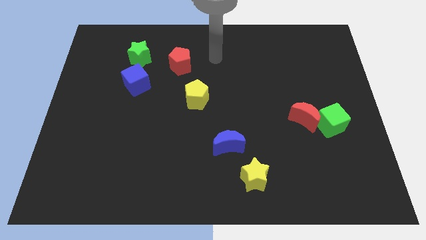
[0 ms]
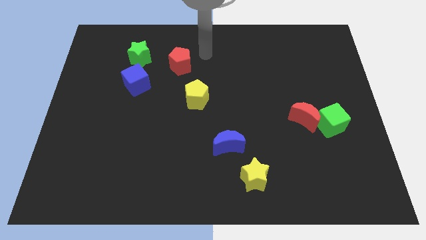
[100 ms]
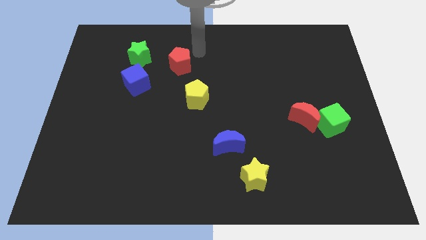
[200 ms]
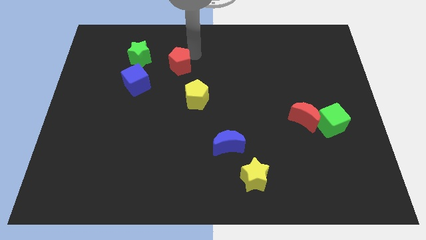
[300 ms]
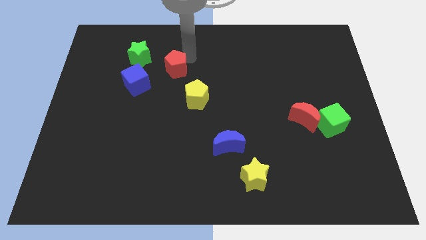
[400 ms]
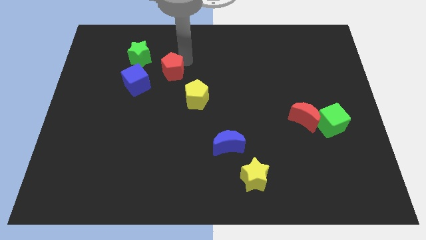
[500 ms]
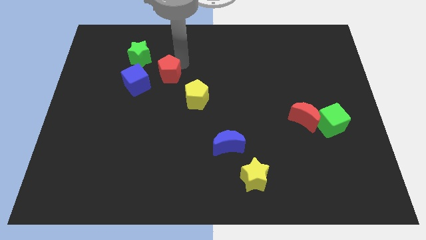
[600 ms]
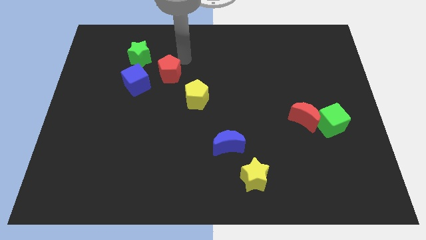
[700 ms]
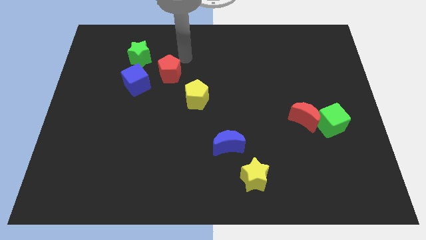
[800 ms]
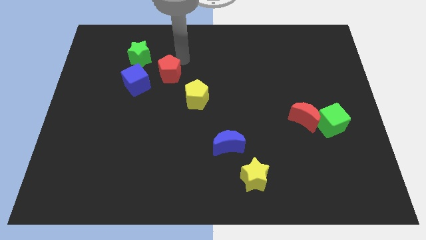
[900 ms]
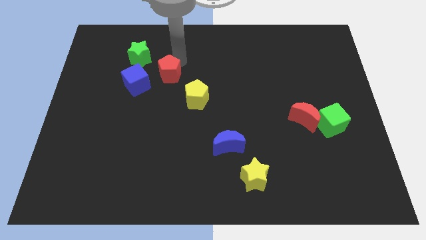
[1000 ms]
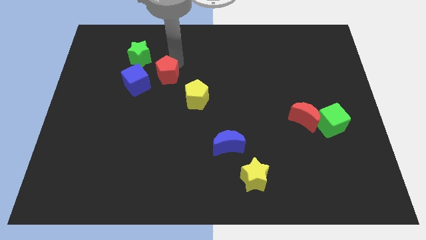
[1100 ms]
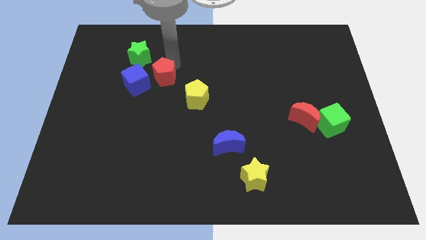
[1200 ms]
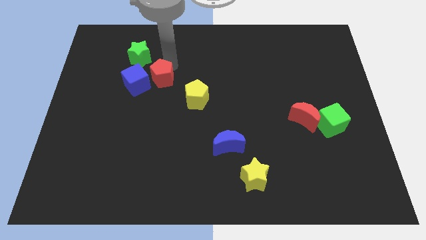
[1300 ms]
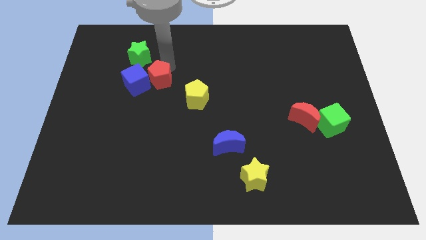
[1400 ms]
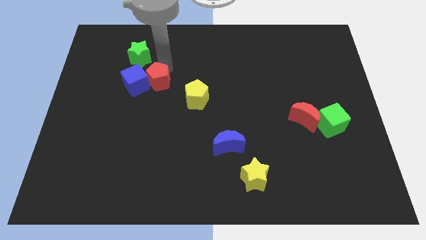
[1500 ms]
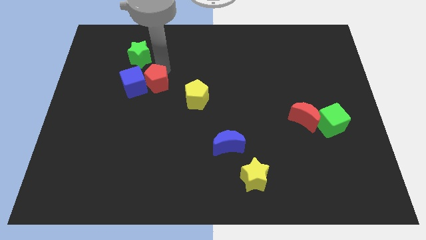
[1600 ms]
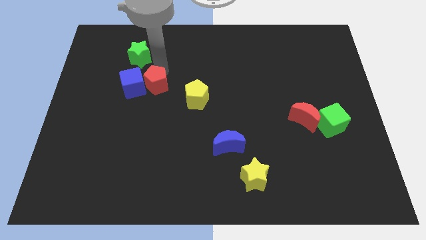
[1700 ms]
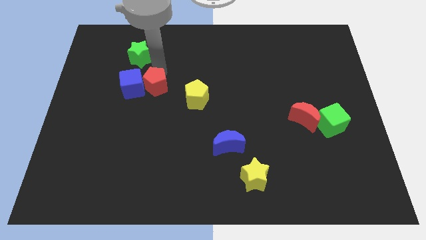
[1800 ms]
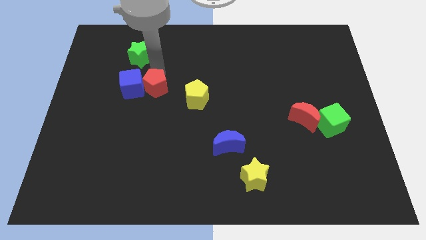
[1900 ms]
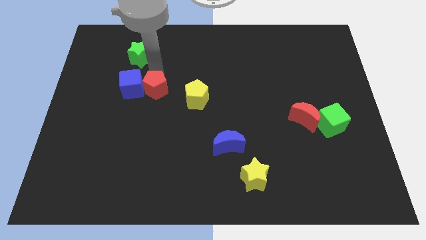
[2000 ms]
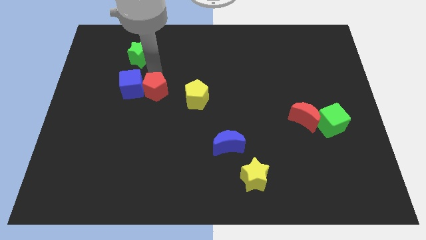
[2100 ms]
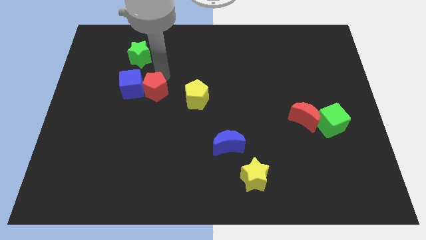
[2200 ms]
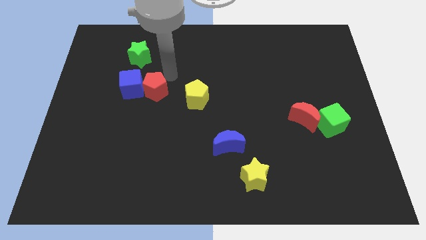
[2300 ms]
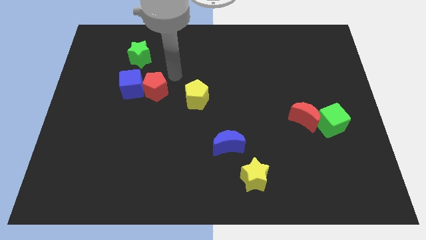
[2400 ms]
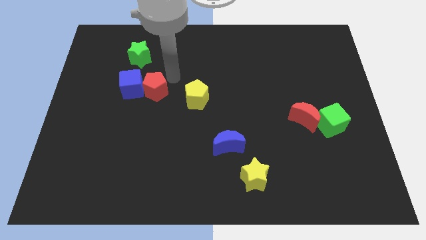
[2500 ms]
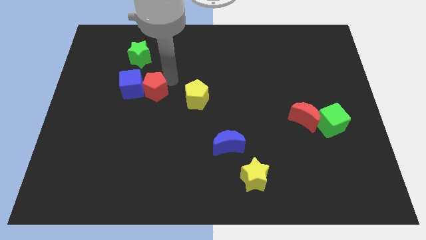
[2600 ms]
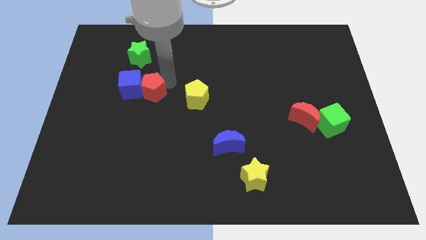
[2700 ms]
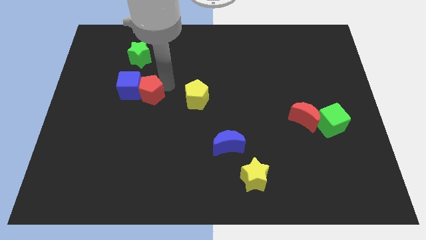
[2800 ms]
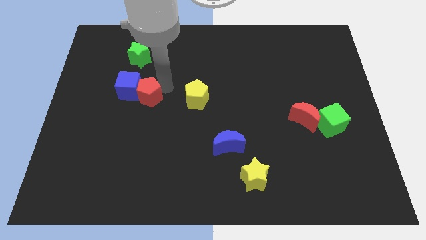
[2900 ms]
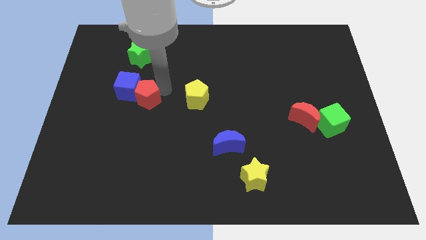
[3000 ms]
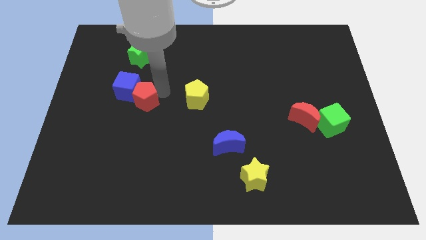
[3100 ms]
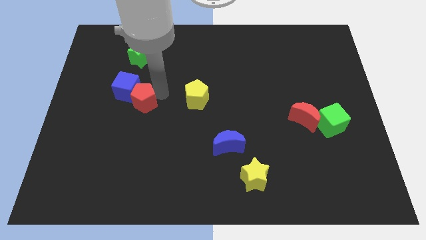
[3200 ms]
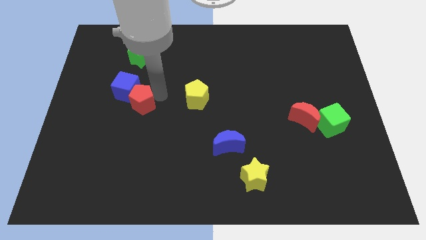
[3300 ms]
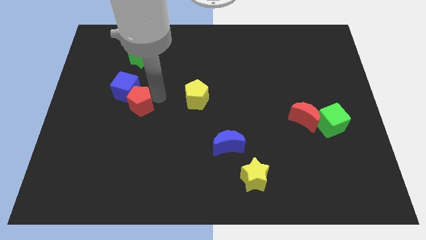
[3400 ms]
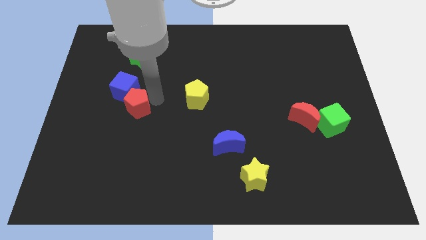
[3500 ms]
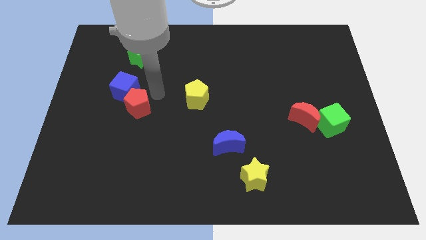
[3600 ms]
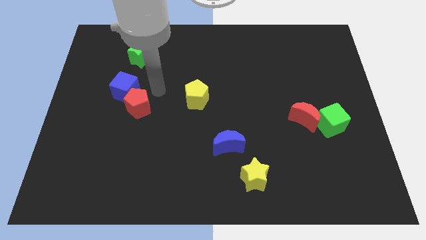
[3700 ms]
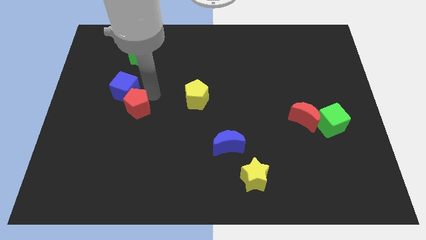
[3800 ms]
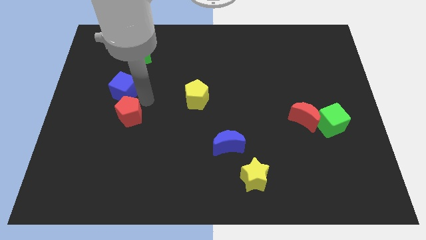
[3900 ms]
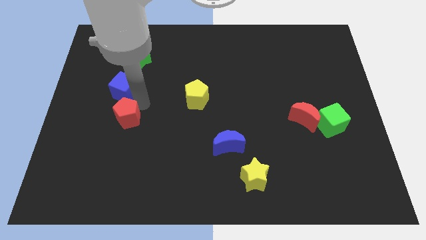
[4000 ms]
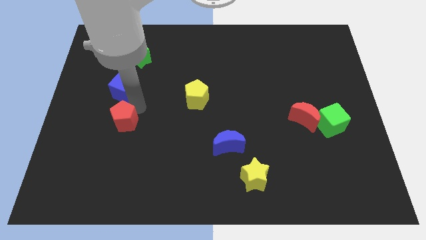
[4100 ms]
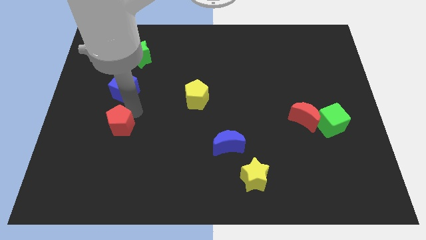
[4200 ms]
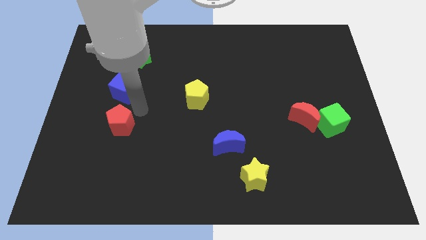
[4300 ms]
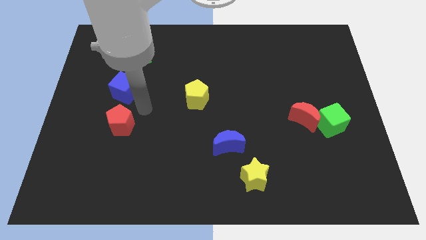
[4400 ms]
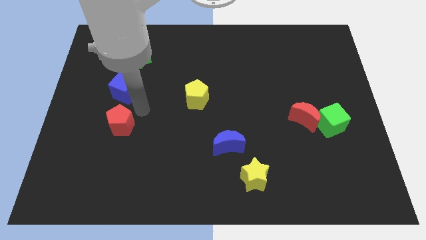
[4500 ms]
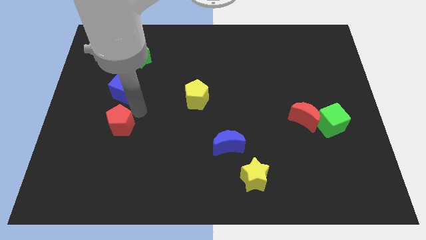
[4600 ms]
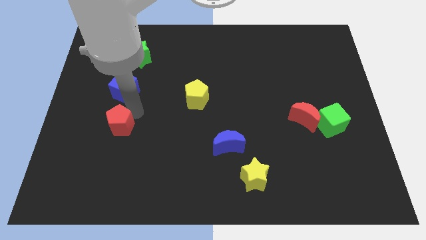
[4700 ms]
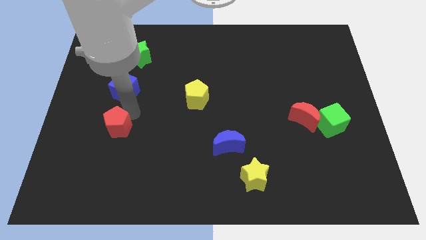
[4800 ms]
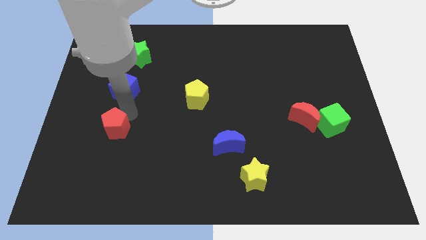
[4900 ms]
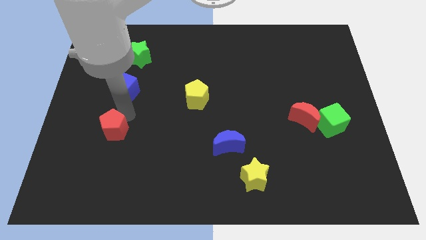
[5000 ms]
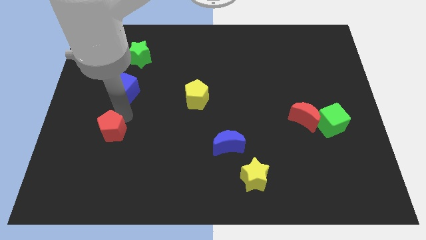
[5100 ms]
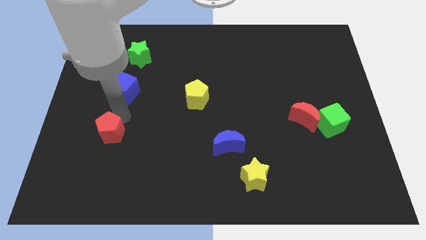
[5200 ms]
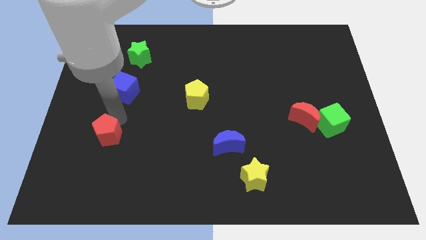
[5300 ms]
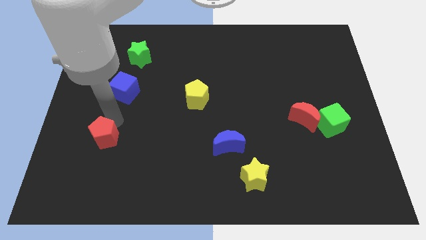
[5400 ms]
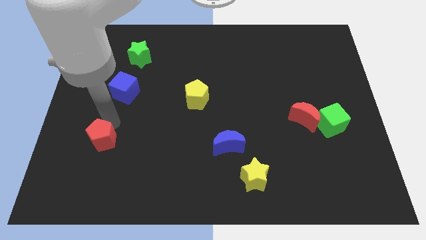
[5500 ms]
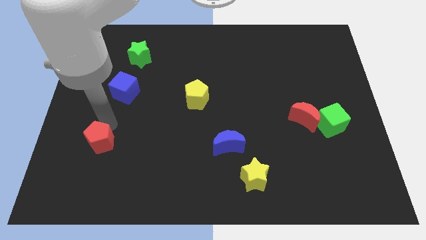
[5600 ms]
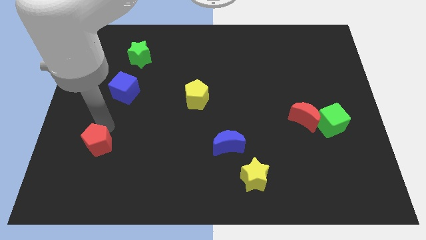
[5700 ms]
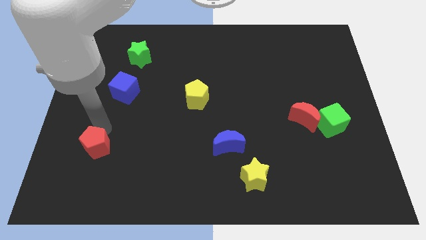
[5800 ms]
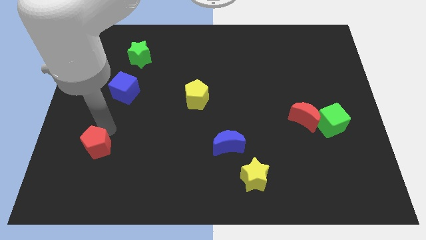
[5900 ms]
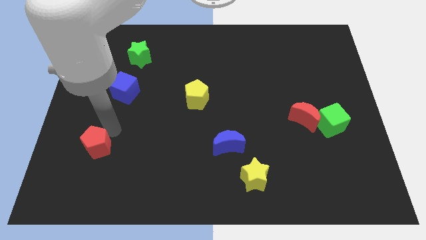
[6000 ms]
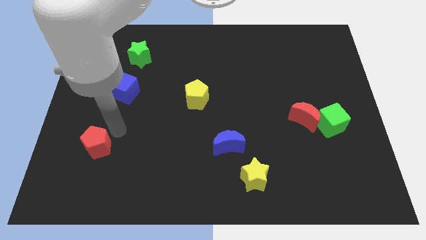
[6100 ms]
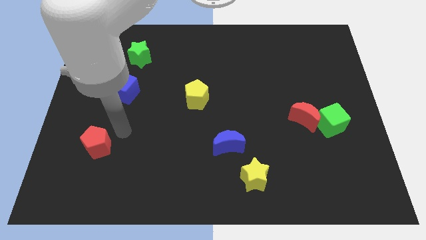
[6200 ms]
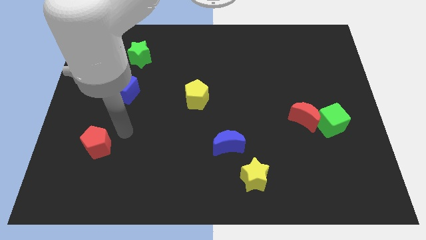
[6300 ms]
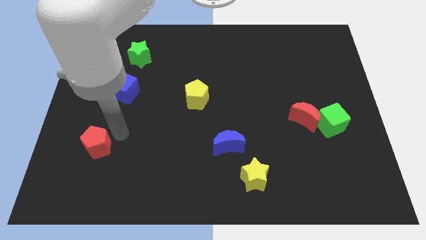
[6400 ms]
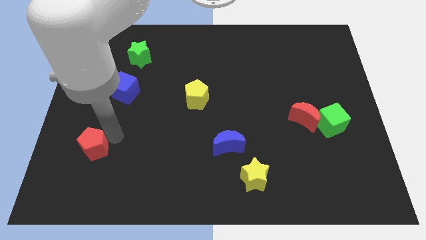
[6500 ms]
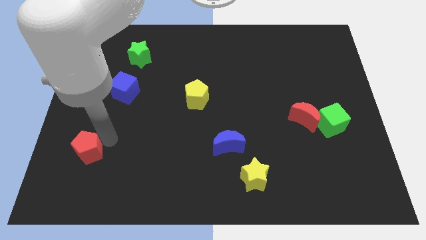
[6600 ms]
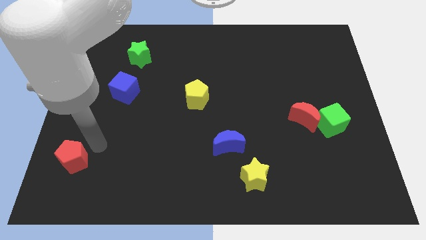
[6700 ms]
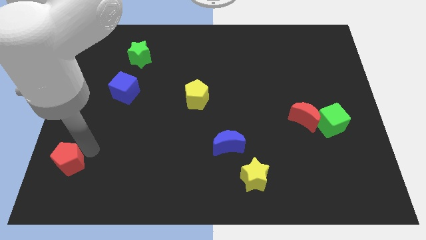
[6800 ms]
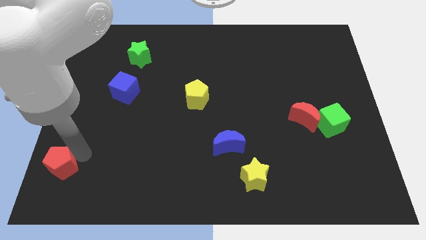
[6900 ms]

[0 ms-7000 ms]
put the red pentagon to the bottom left of the board

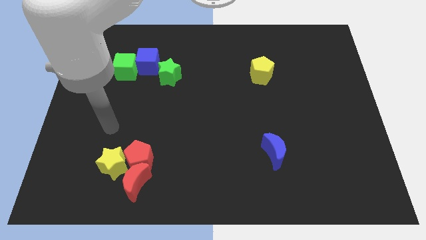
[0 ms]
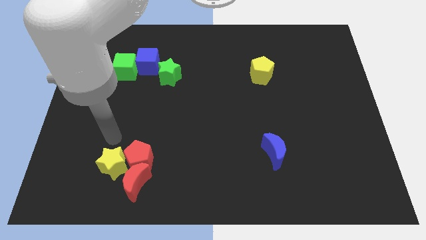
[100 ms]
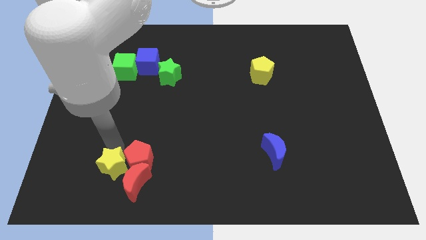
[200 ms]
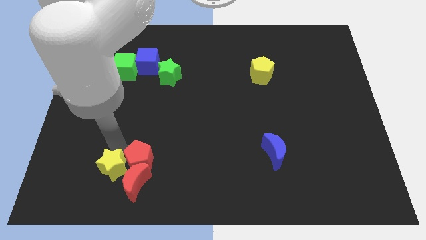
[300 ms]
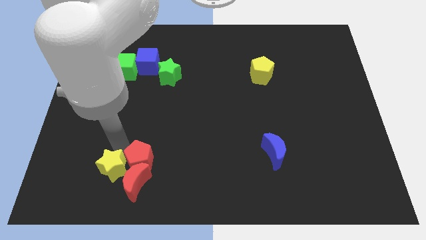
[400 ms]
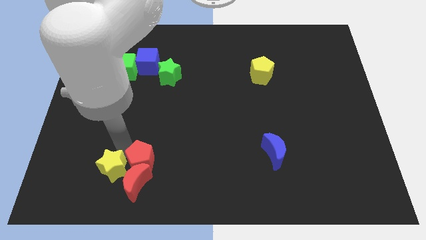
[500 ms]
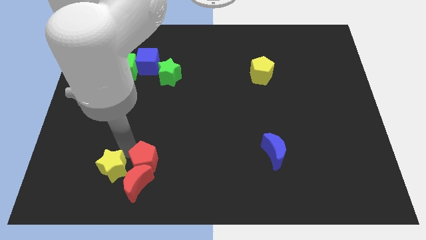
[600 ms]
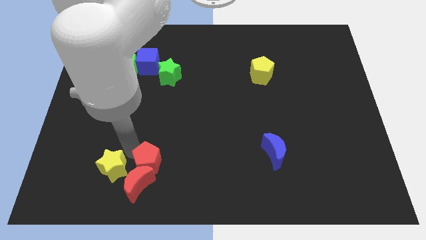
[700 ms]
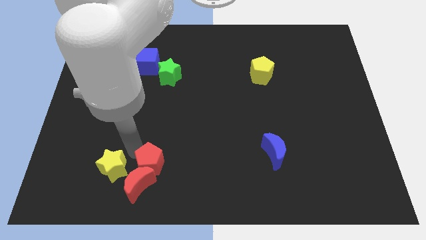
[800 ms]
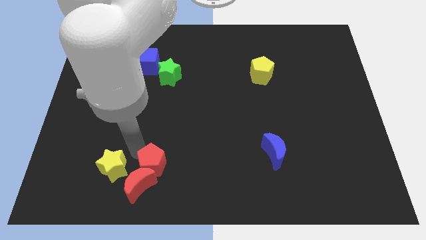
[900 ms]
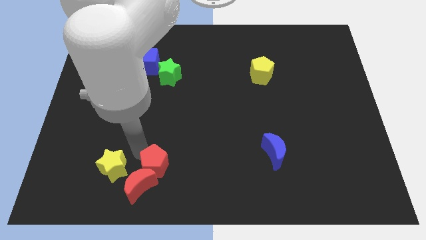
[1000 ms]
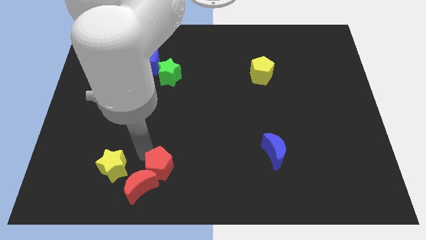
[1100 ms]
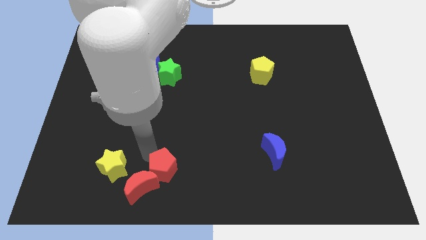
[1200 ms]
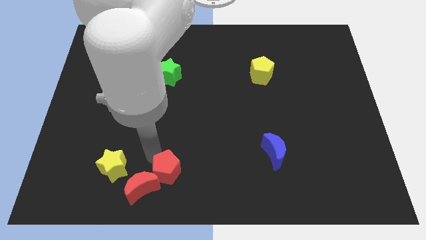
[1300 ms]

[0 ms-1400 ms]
push the red pentagon to the bottom
